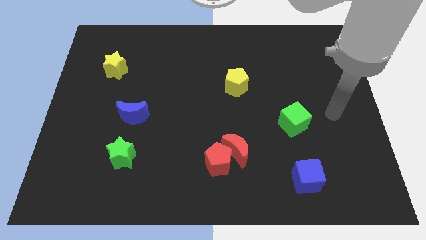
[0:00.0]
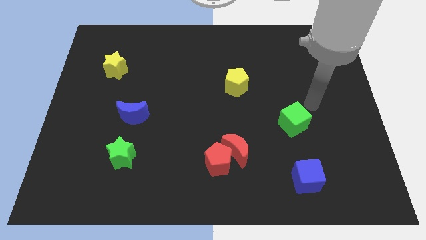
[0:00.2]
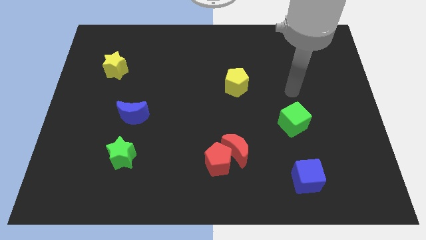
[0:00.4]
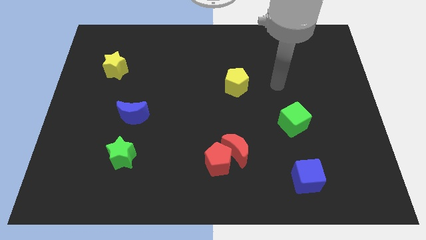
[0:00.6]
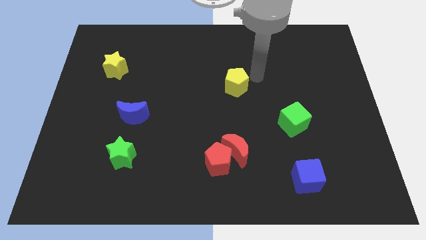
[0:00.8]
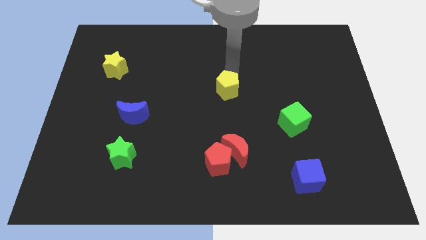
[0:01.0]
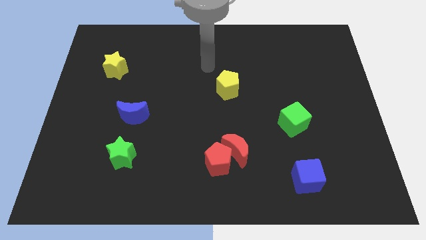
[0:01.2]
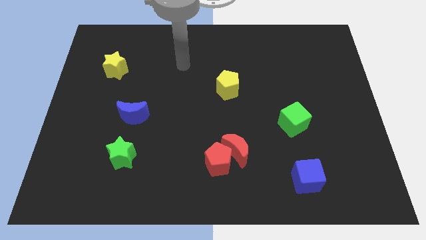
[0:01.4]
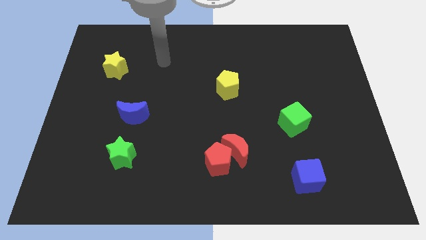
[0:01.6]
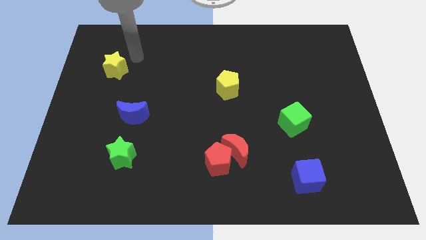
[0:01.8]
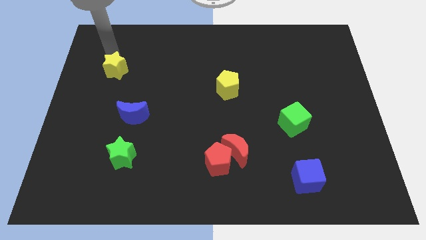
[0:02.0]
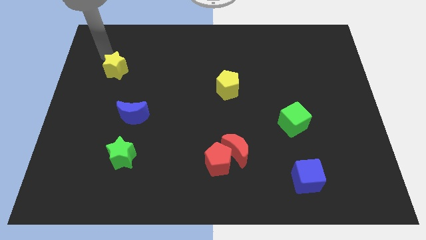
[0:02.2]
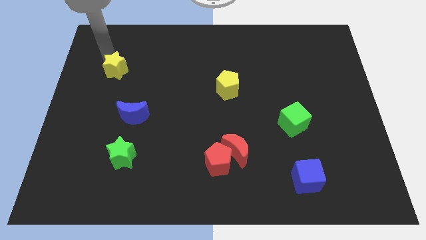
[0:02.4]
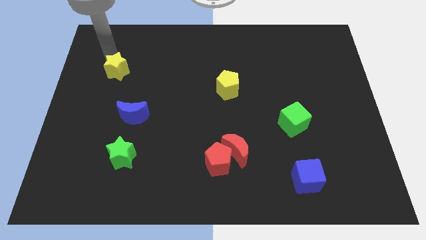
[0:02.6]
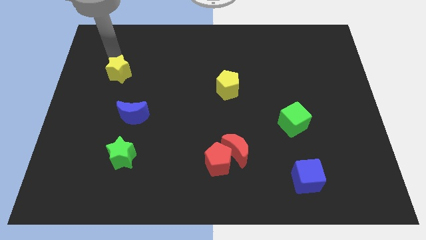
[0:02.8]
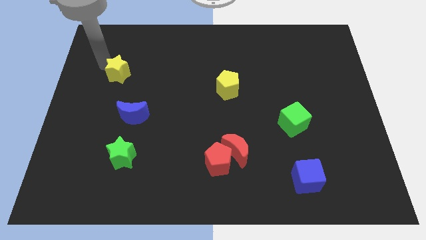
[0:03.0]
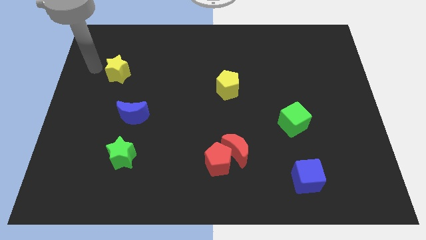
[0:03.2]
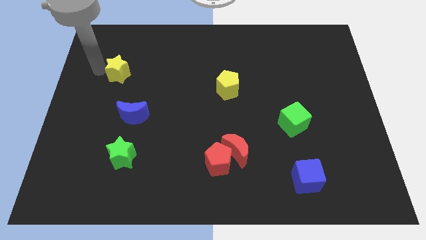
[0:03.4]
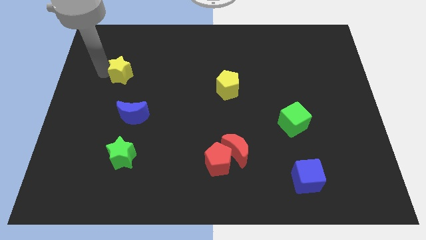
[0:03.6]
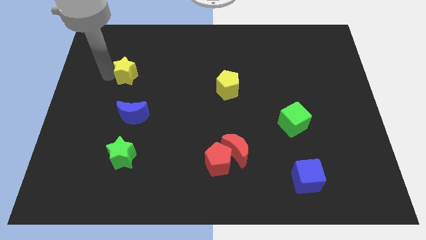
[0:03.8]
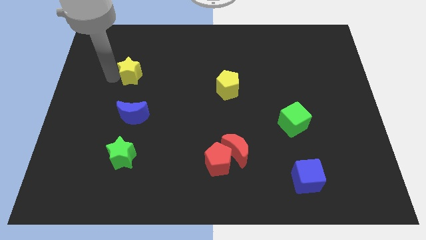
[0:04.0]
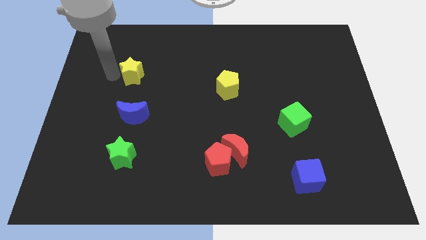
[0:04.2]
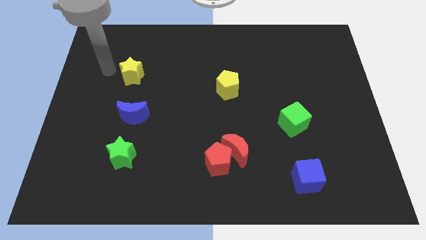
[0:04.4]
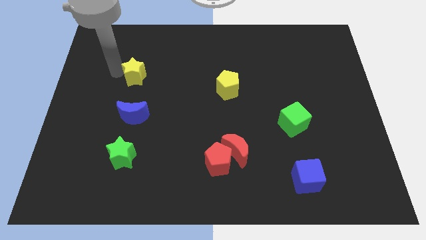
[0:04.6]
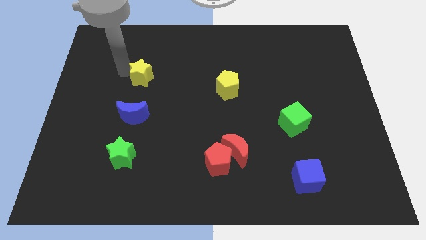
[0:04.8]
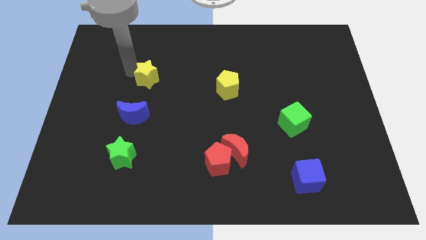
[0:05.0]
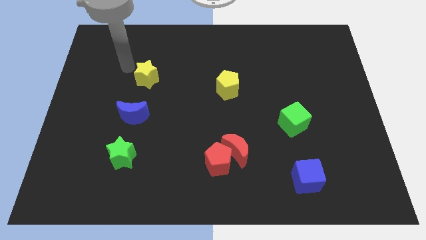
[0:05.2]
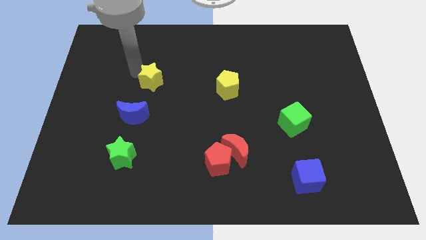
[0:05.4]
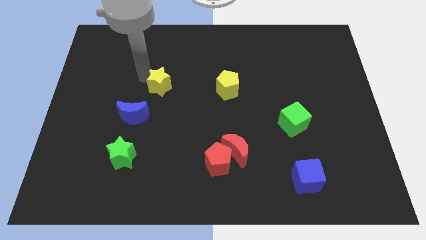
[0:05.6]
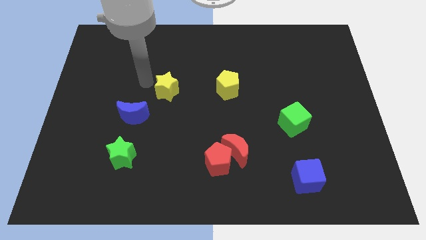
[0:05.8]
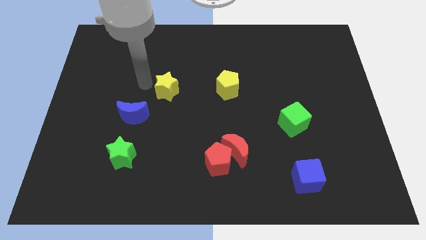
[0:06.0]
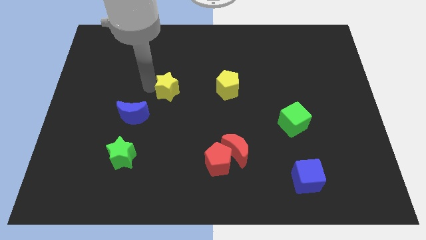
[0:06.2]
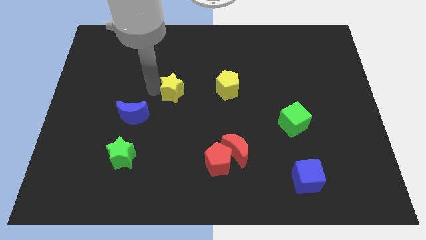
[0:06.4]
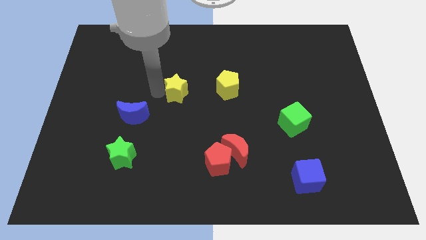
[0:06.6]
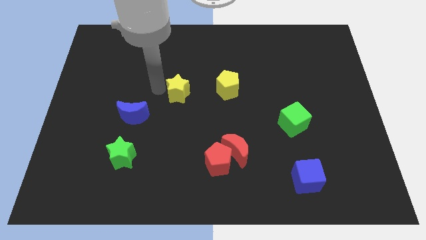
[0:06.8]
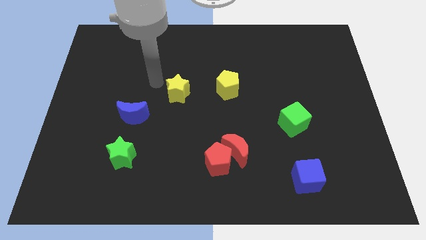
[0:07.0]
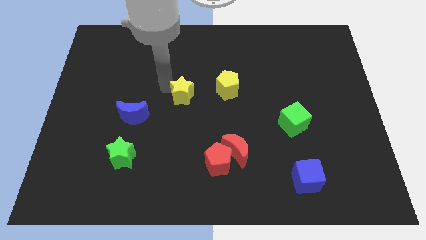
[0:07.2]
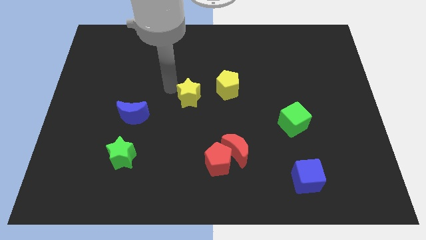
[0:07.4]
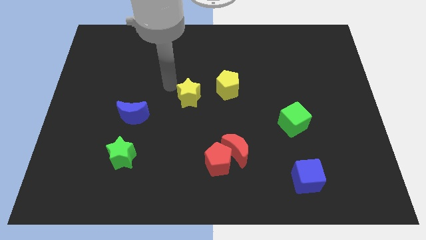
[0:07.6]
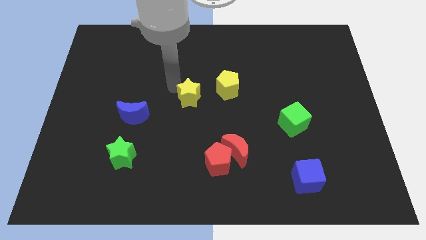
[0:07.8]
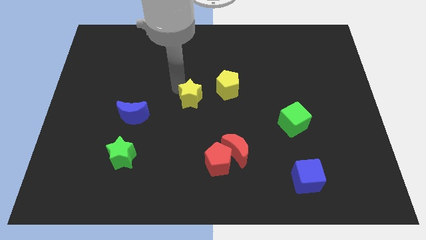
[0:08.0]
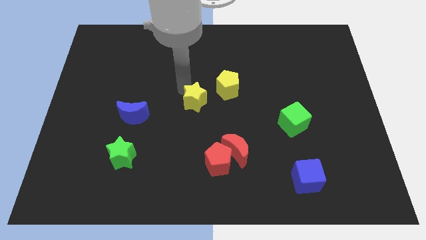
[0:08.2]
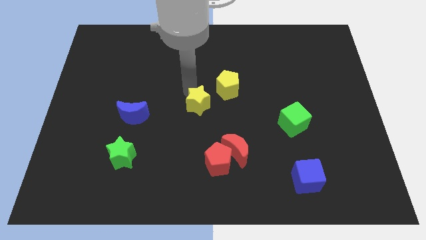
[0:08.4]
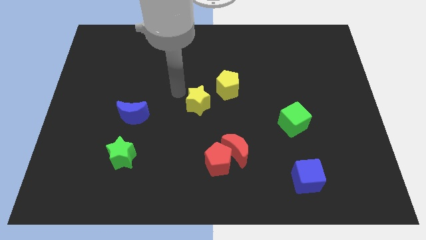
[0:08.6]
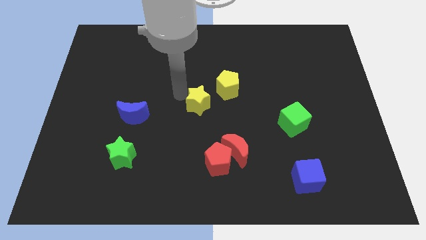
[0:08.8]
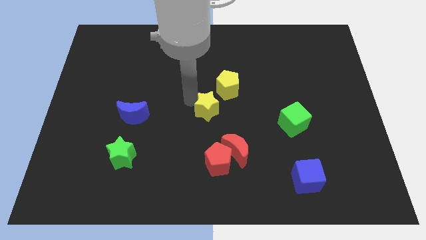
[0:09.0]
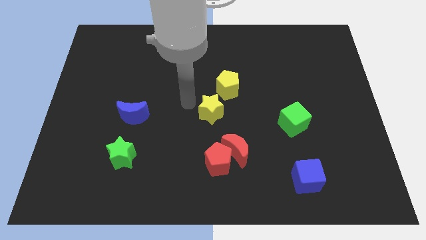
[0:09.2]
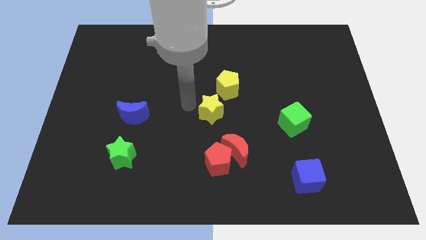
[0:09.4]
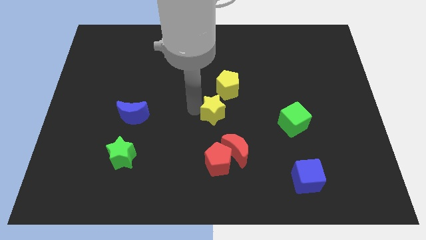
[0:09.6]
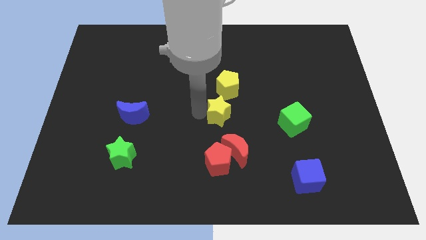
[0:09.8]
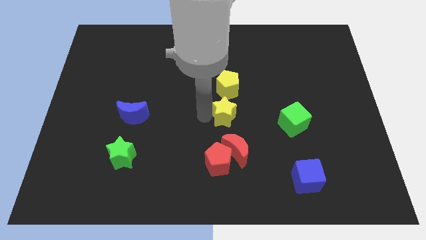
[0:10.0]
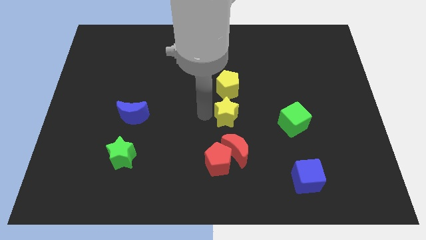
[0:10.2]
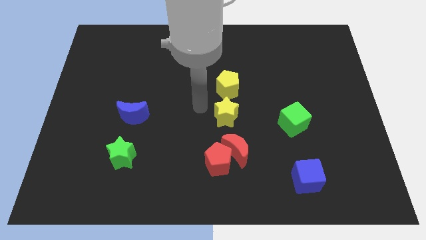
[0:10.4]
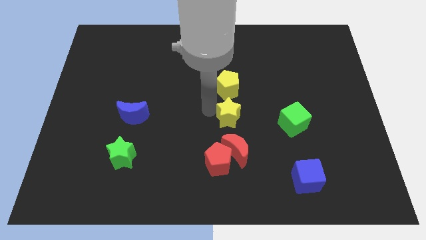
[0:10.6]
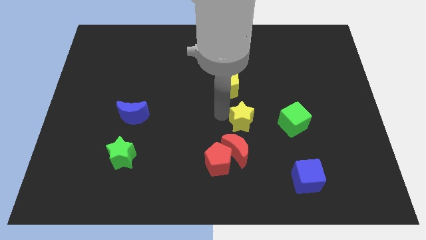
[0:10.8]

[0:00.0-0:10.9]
move the yellow star diagonally up and to the right of the red moon

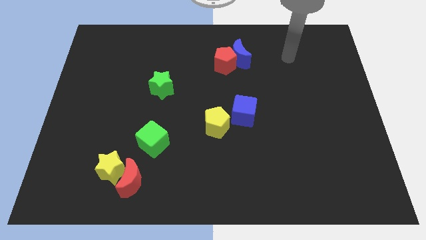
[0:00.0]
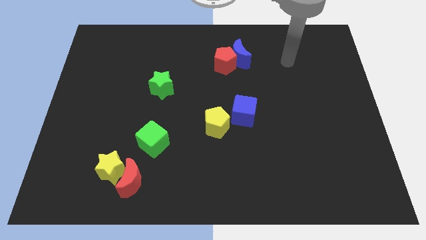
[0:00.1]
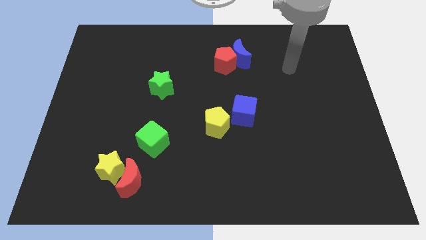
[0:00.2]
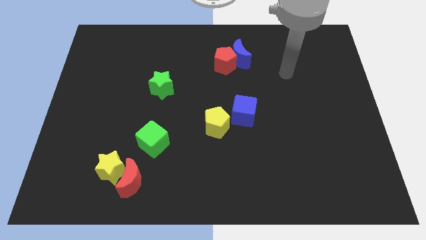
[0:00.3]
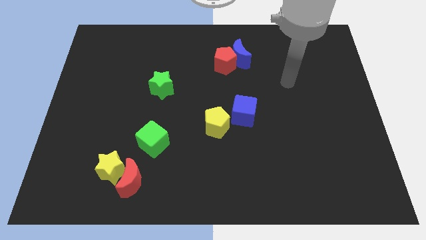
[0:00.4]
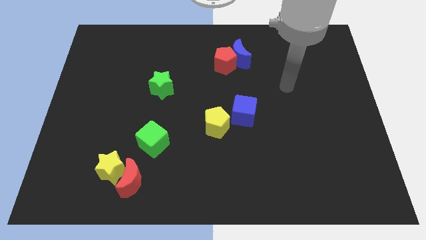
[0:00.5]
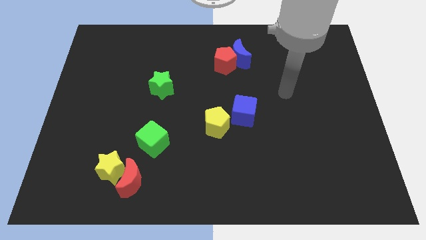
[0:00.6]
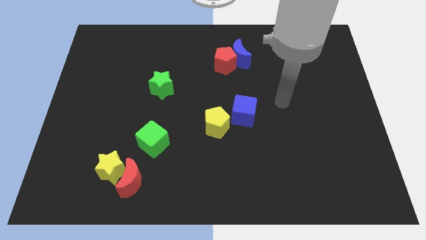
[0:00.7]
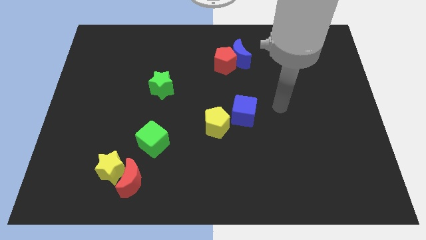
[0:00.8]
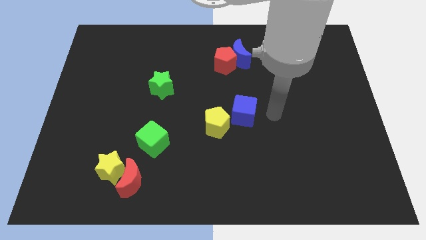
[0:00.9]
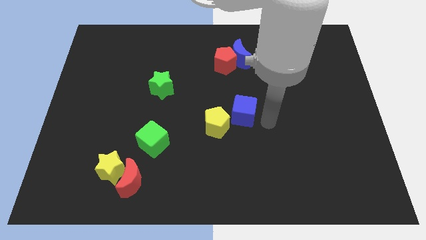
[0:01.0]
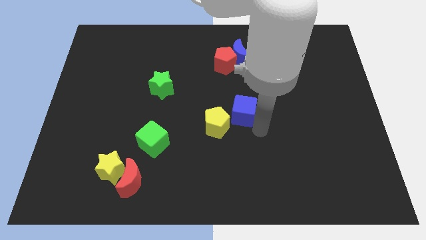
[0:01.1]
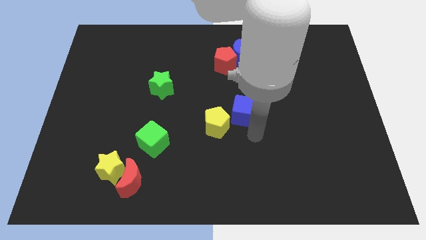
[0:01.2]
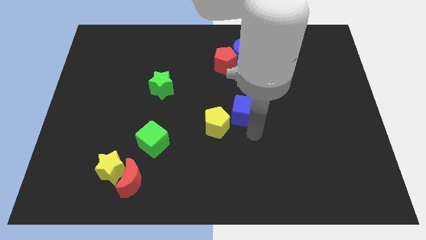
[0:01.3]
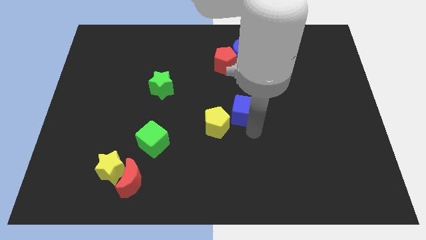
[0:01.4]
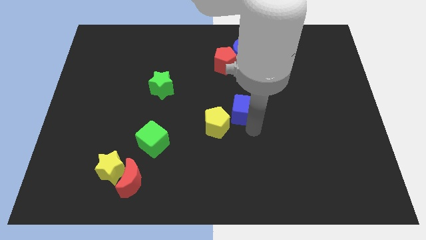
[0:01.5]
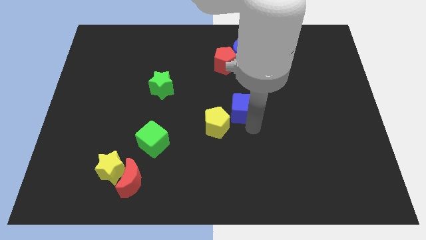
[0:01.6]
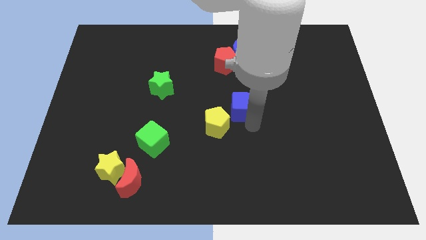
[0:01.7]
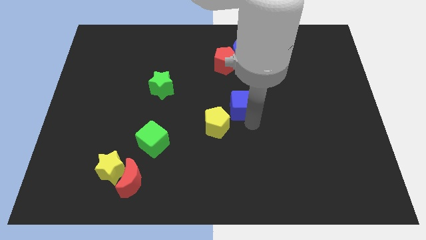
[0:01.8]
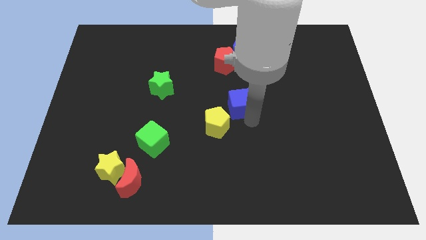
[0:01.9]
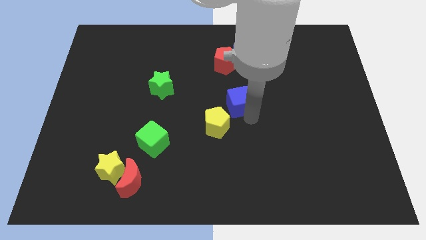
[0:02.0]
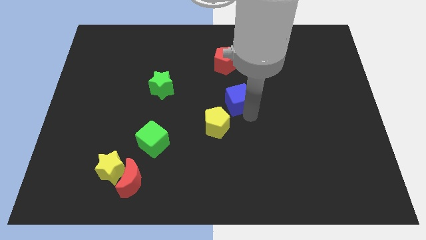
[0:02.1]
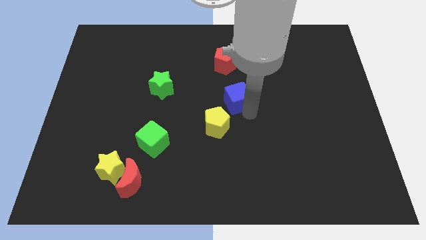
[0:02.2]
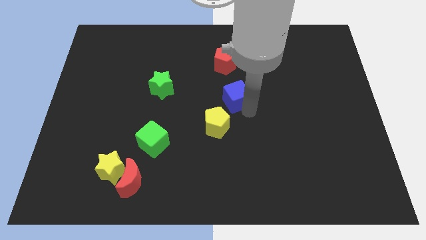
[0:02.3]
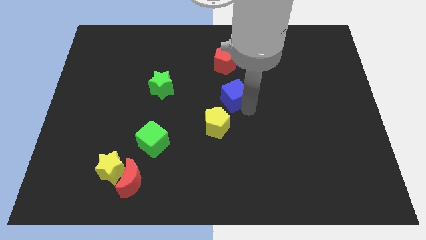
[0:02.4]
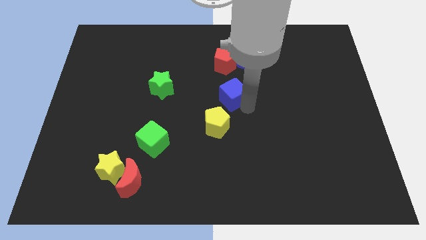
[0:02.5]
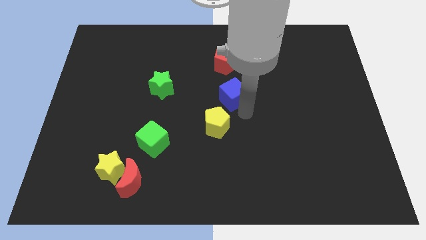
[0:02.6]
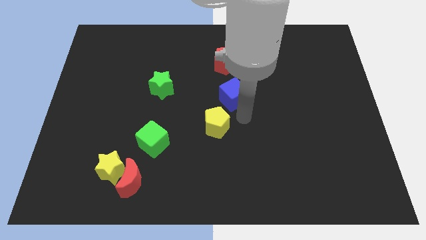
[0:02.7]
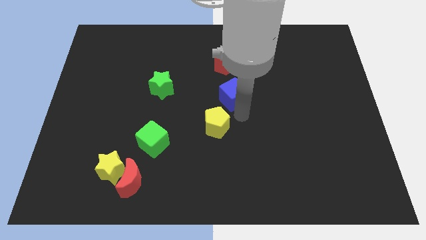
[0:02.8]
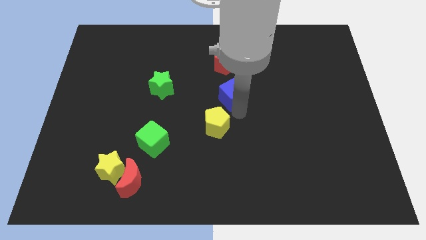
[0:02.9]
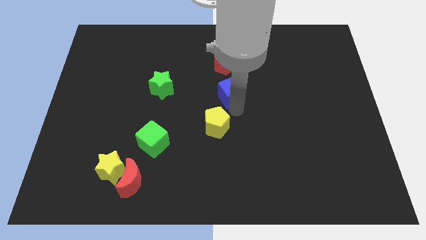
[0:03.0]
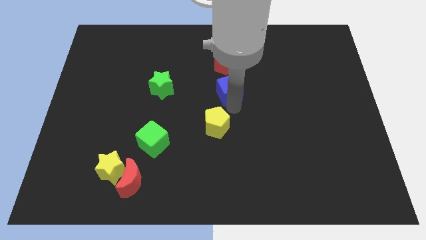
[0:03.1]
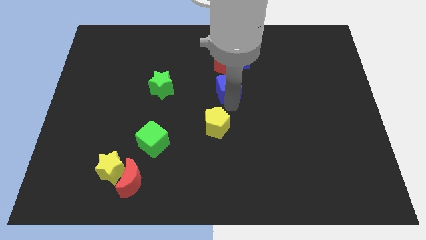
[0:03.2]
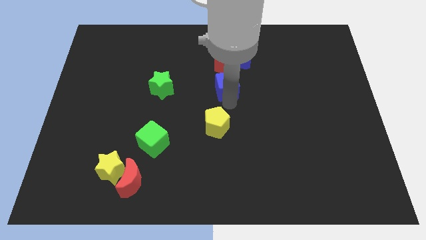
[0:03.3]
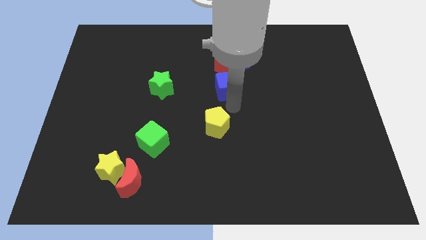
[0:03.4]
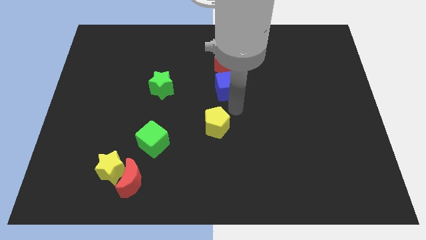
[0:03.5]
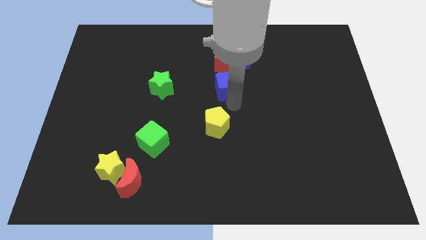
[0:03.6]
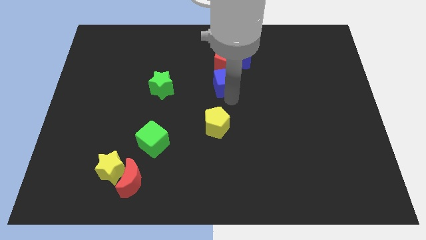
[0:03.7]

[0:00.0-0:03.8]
slide the blue cube to the bottom left side of the blue moon
